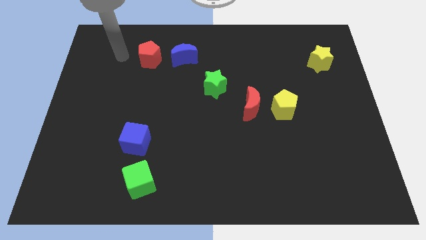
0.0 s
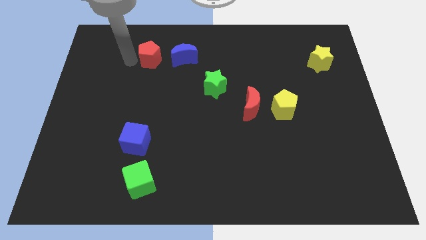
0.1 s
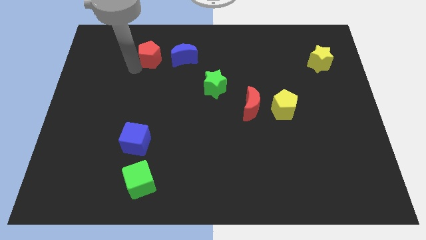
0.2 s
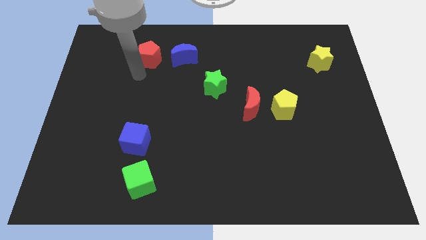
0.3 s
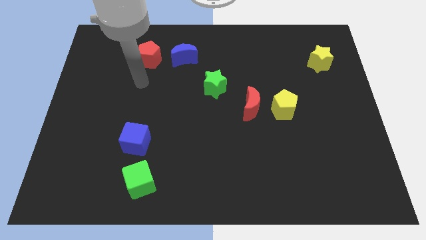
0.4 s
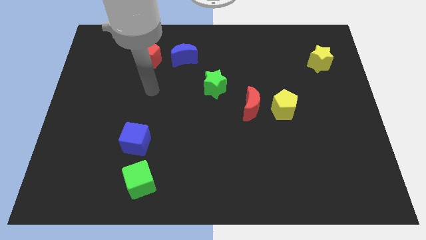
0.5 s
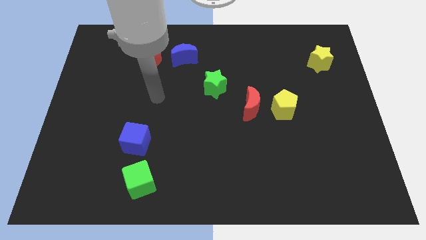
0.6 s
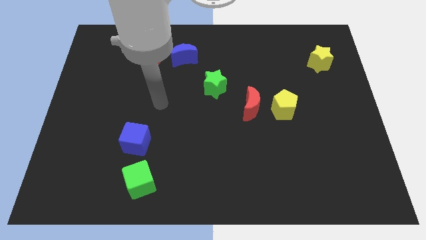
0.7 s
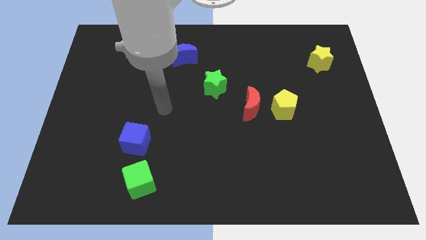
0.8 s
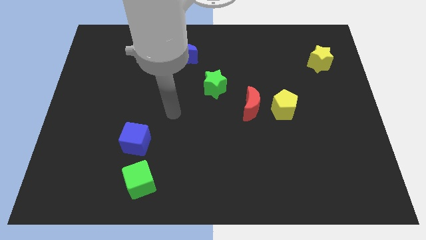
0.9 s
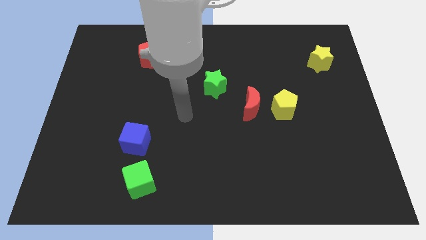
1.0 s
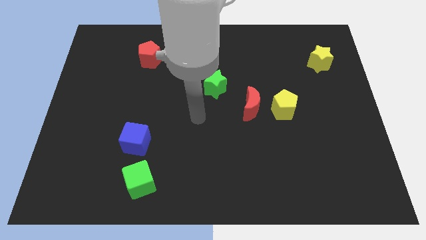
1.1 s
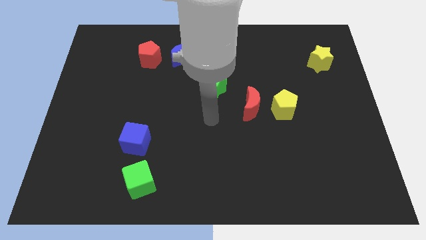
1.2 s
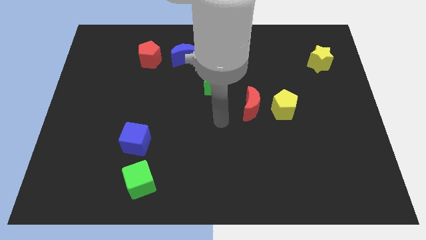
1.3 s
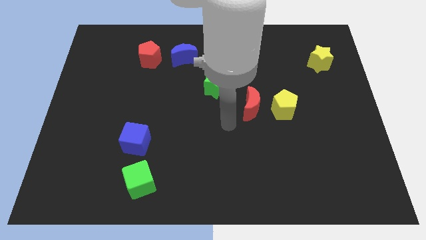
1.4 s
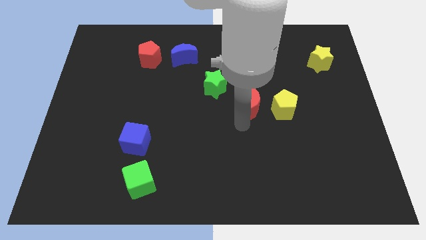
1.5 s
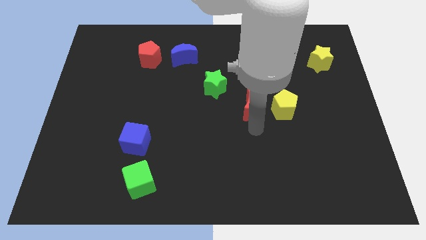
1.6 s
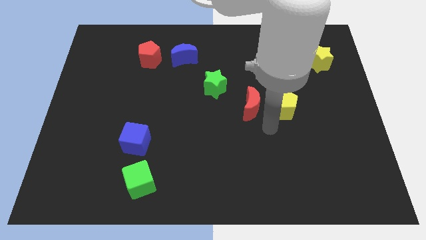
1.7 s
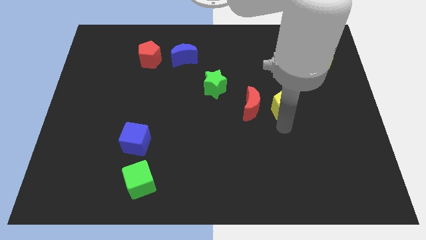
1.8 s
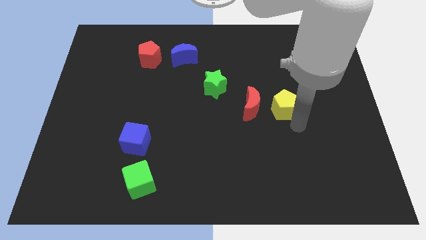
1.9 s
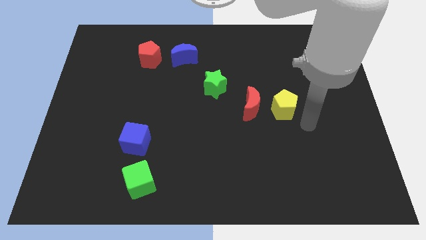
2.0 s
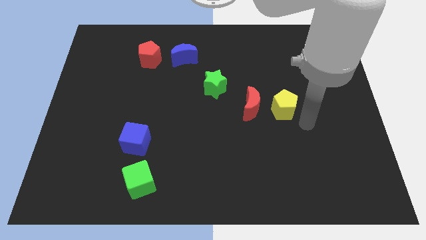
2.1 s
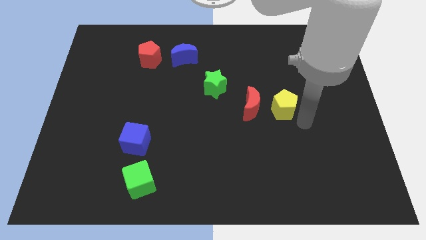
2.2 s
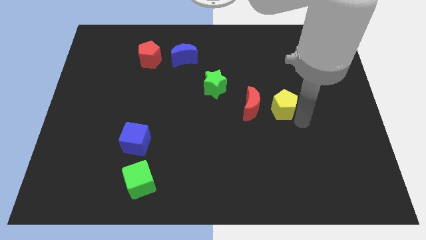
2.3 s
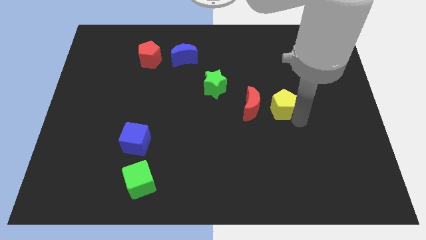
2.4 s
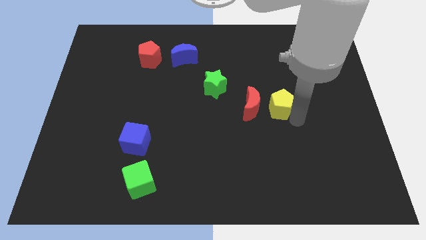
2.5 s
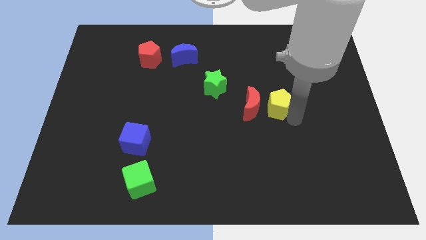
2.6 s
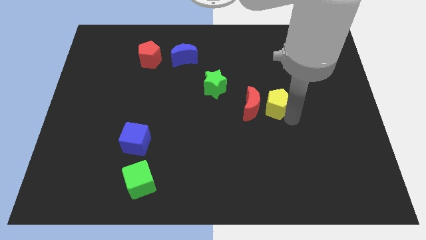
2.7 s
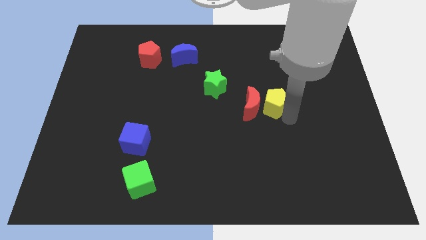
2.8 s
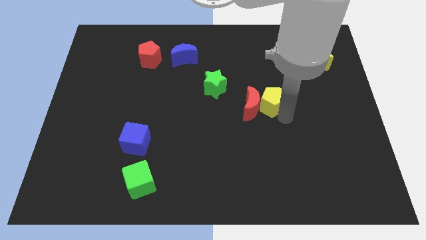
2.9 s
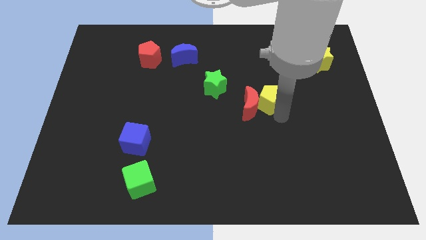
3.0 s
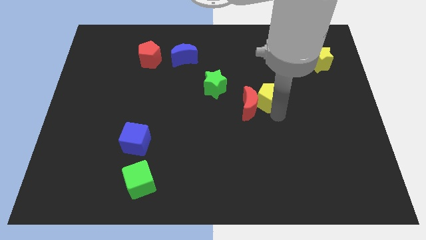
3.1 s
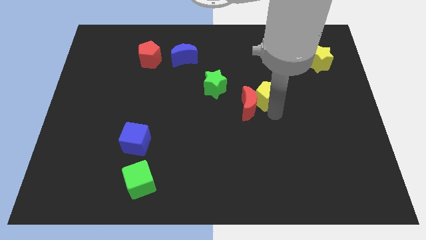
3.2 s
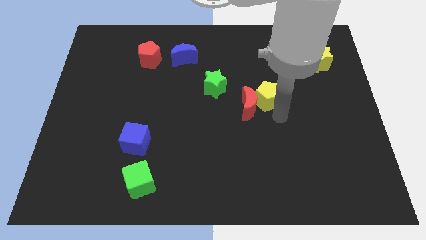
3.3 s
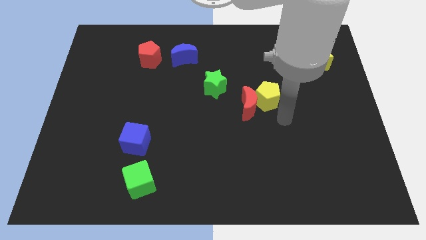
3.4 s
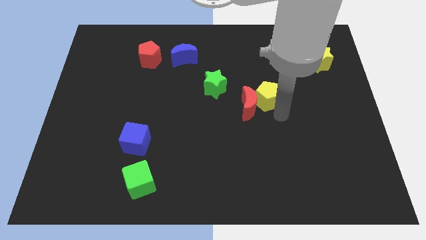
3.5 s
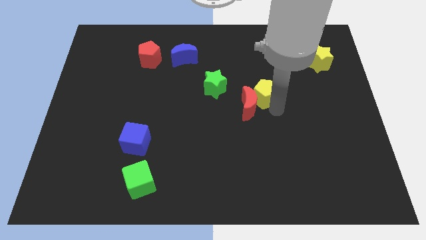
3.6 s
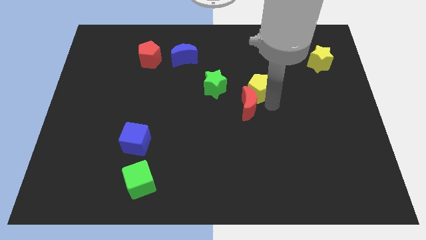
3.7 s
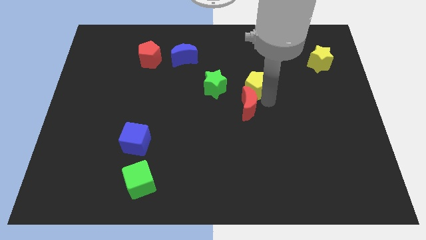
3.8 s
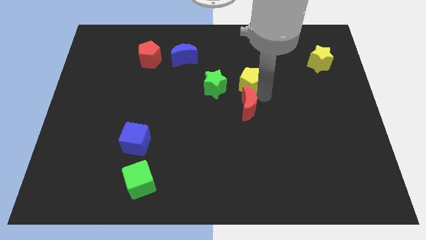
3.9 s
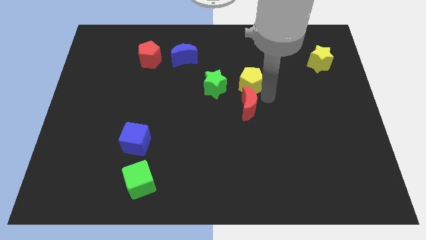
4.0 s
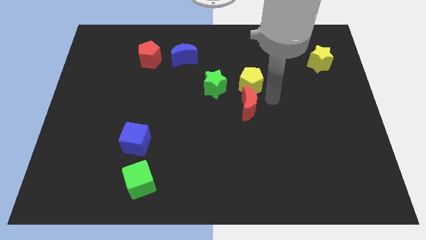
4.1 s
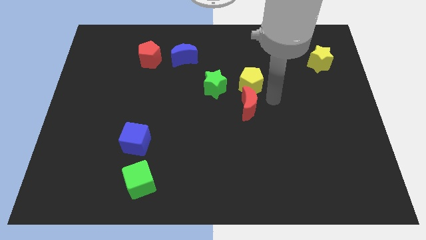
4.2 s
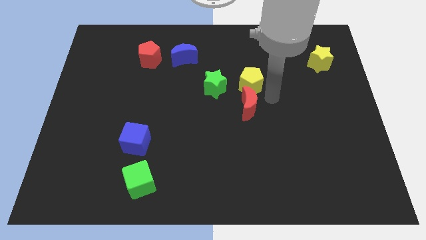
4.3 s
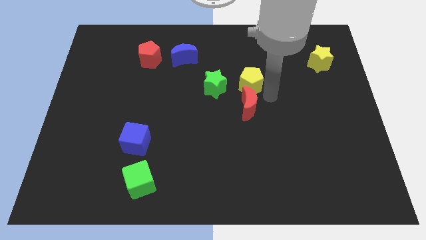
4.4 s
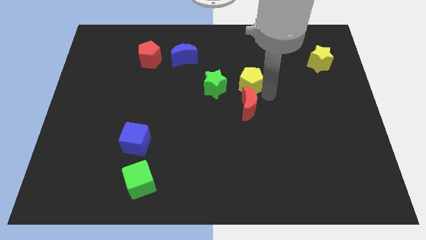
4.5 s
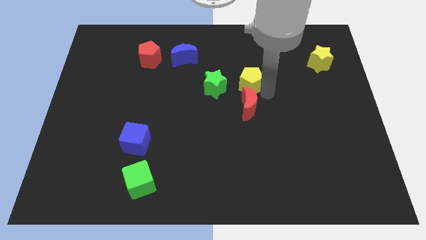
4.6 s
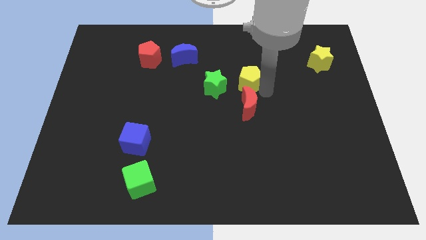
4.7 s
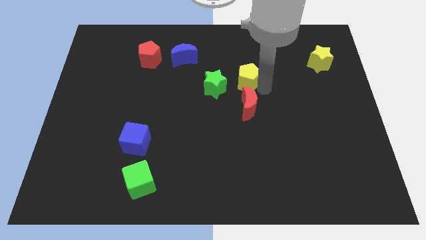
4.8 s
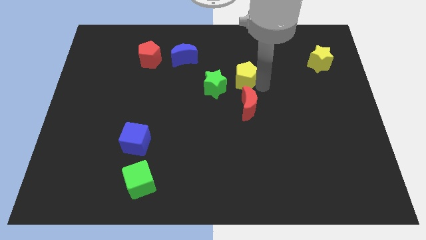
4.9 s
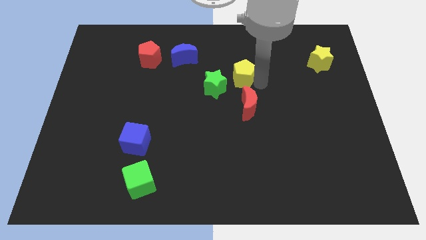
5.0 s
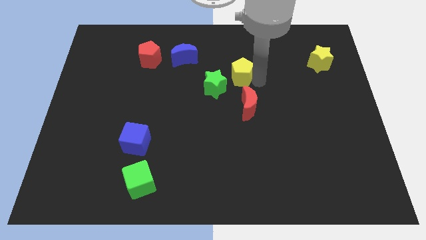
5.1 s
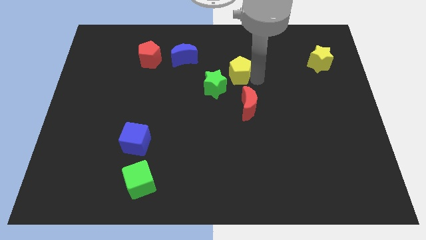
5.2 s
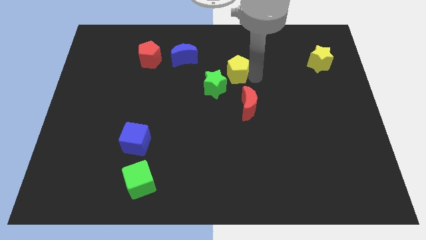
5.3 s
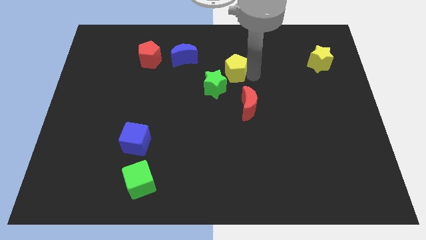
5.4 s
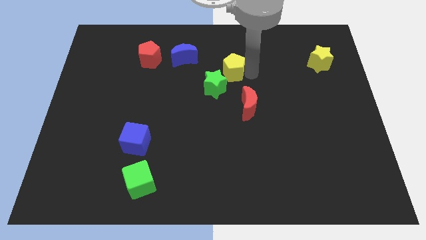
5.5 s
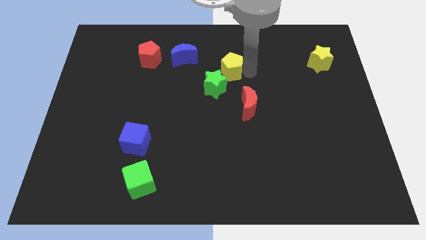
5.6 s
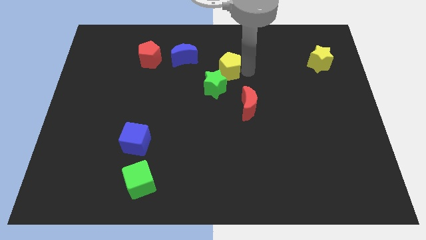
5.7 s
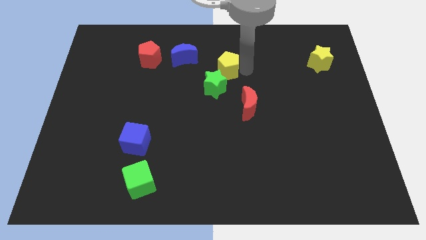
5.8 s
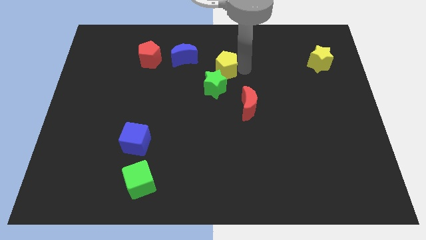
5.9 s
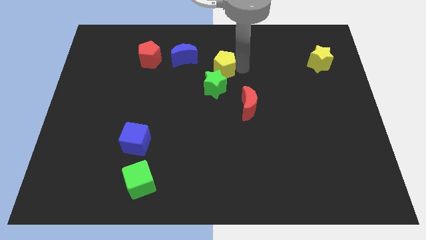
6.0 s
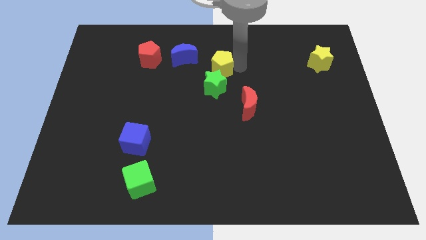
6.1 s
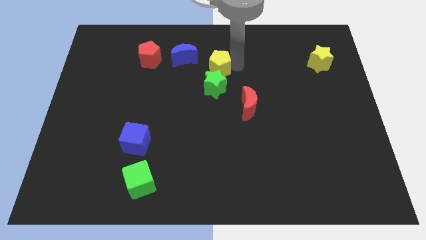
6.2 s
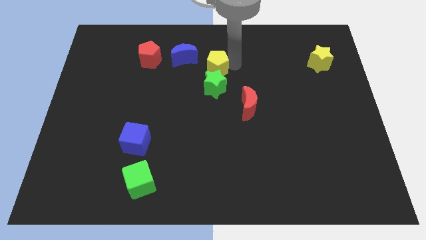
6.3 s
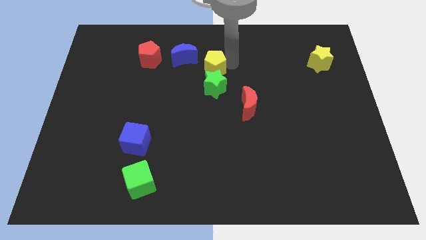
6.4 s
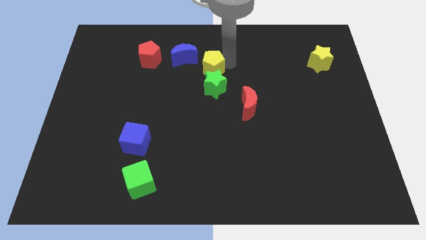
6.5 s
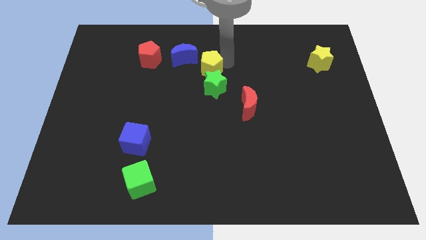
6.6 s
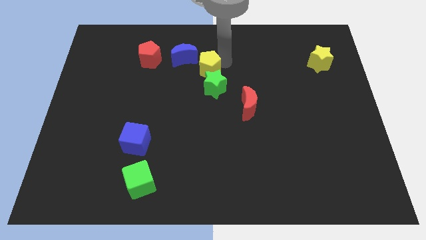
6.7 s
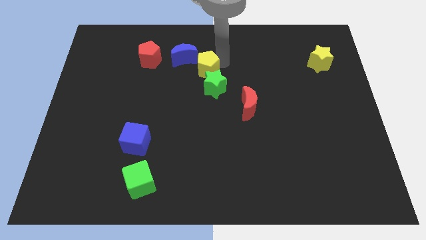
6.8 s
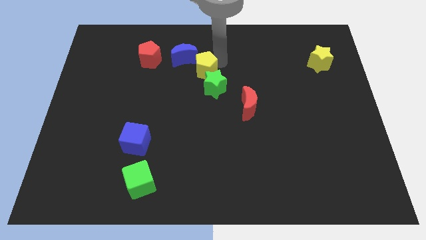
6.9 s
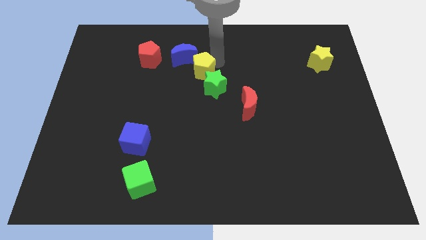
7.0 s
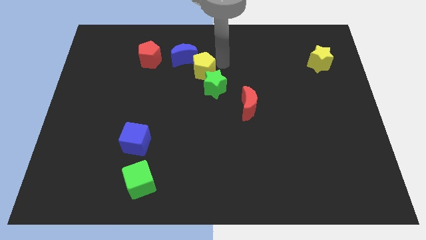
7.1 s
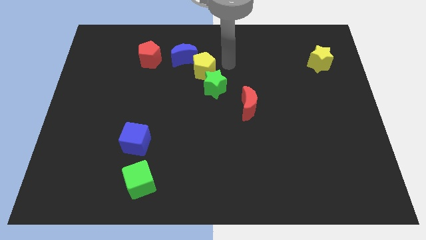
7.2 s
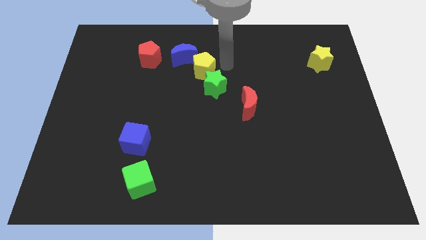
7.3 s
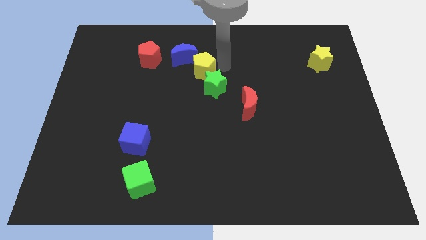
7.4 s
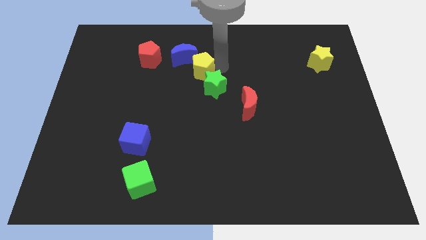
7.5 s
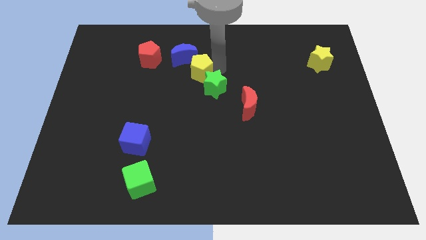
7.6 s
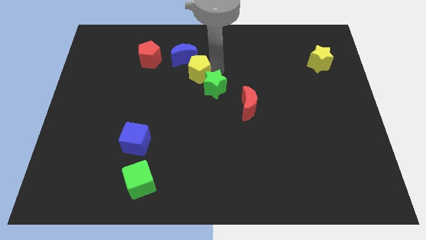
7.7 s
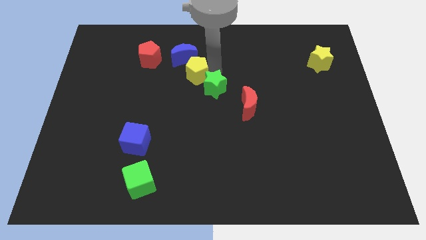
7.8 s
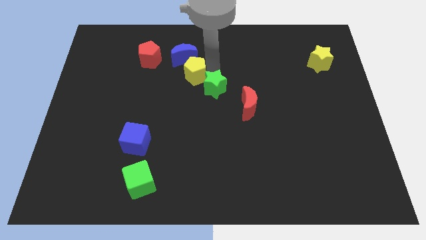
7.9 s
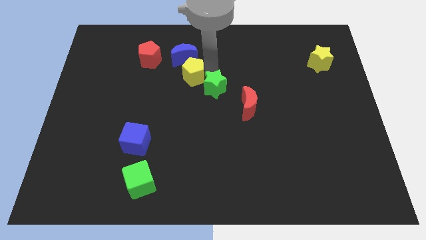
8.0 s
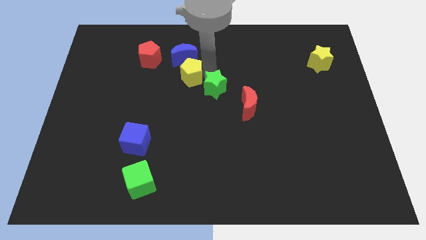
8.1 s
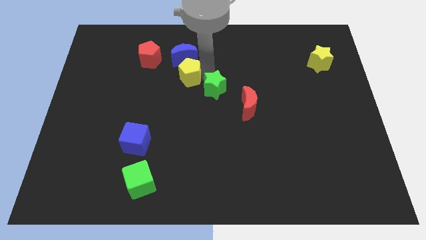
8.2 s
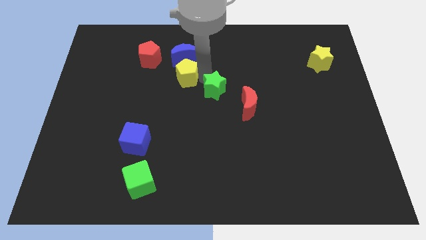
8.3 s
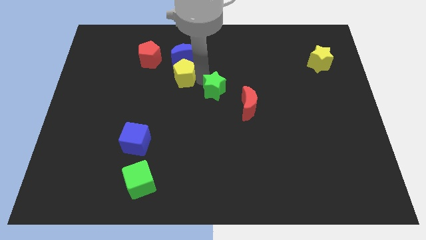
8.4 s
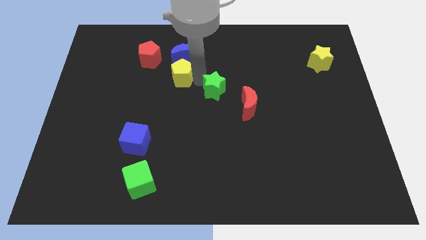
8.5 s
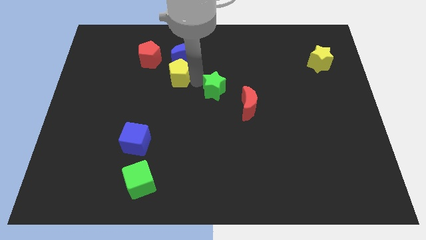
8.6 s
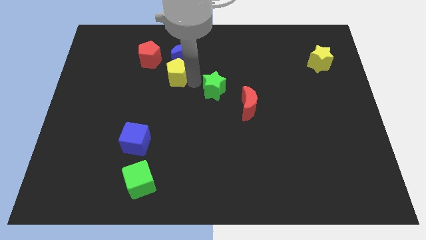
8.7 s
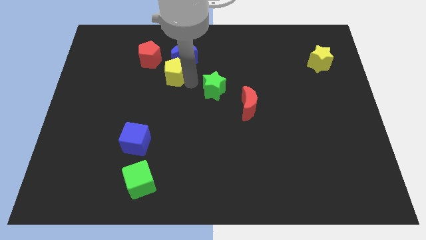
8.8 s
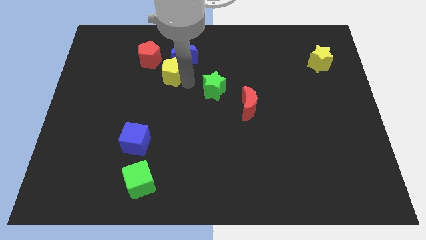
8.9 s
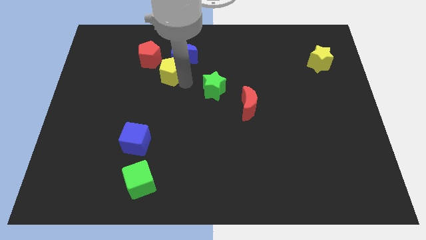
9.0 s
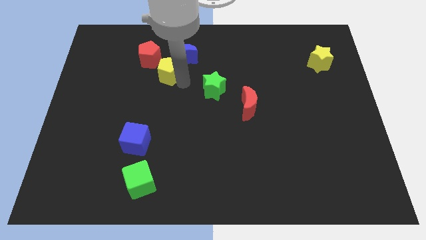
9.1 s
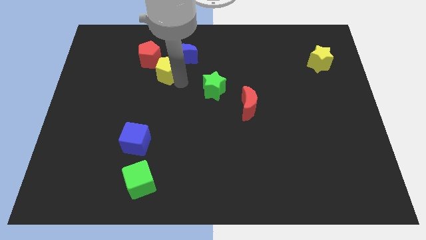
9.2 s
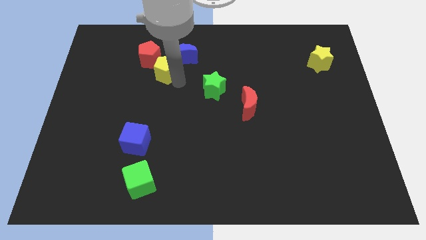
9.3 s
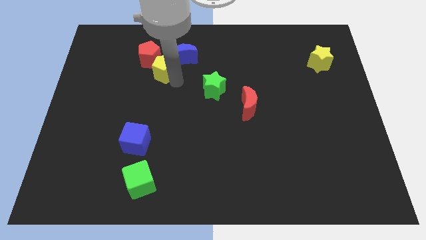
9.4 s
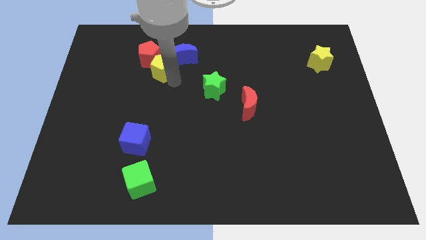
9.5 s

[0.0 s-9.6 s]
slide the yellow pentagon towards the red pentagon
